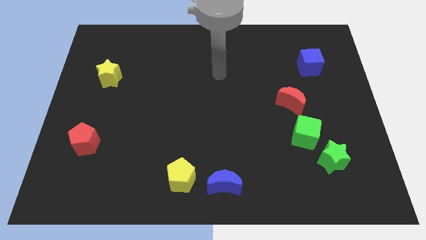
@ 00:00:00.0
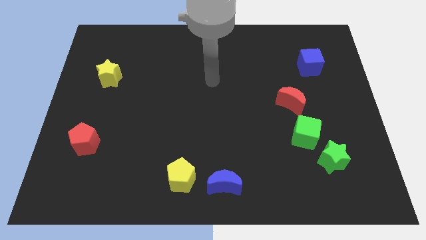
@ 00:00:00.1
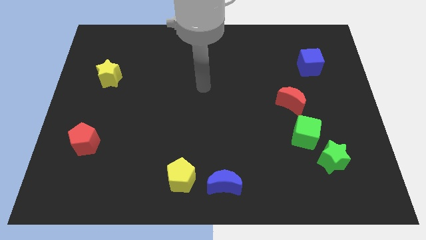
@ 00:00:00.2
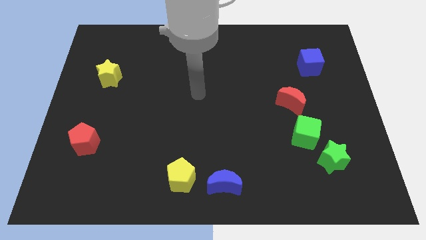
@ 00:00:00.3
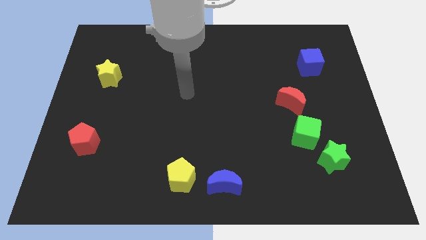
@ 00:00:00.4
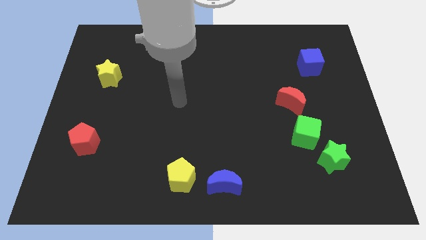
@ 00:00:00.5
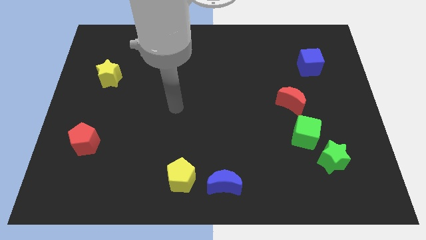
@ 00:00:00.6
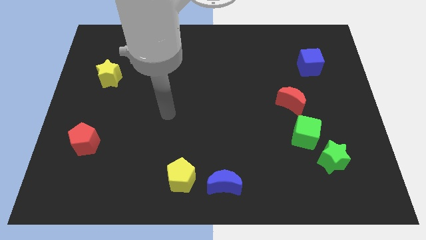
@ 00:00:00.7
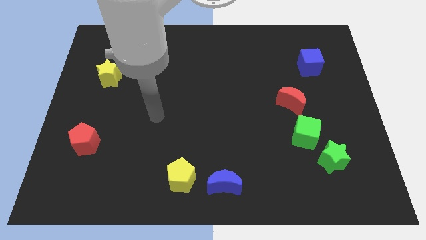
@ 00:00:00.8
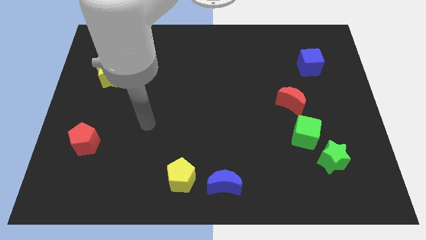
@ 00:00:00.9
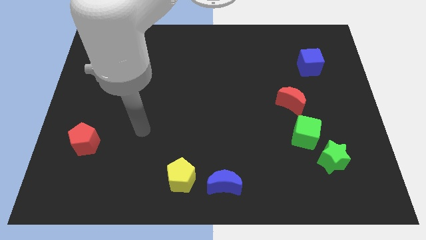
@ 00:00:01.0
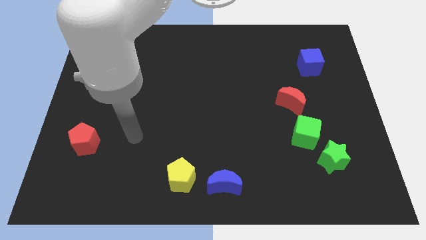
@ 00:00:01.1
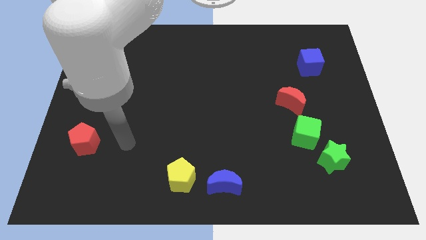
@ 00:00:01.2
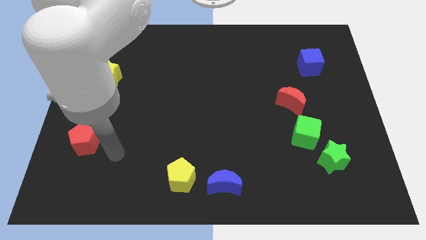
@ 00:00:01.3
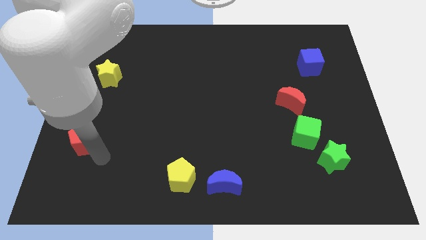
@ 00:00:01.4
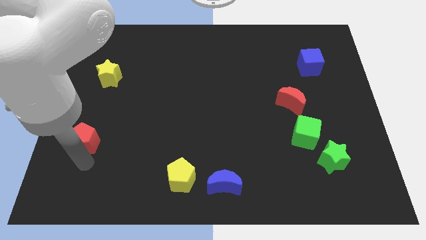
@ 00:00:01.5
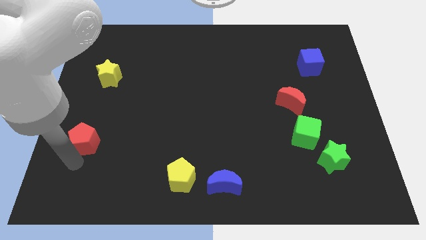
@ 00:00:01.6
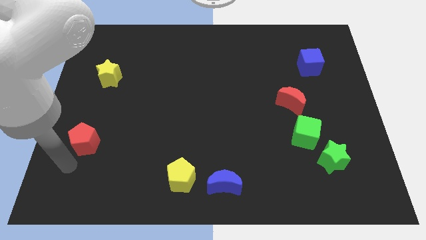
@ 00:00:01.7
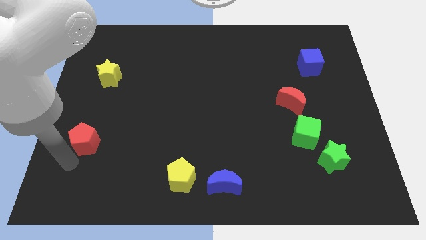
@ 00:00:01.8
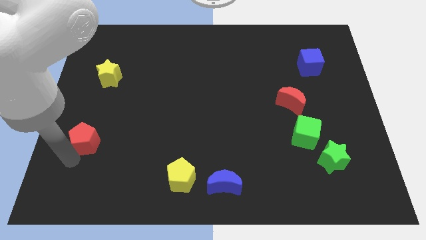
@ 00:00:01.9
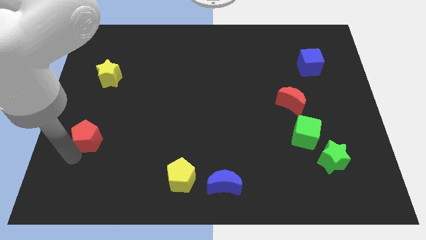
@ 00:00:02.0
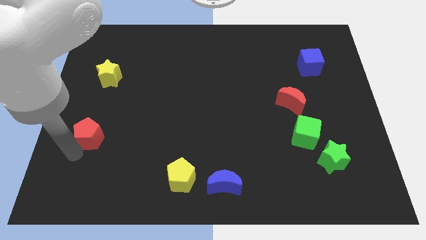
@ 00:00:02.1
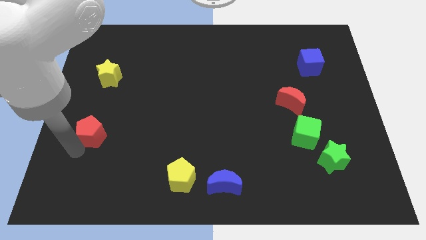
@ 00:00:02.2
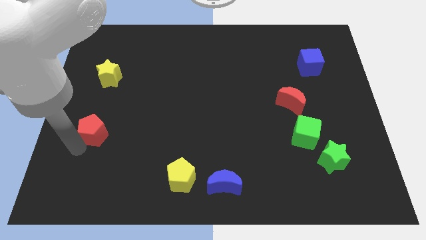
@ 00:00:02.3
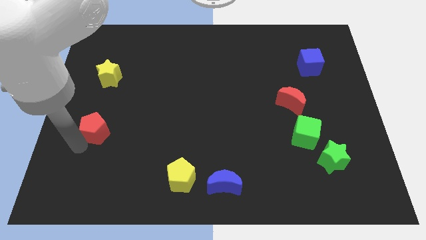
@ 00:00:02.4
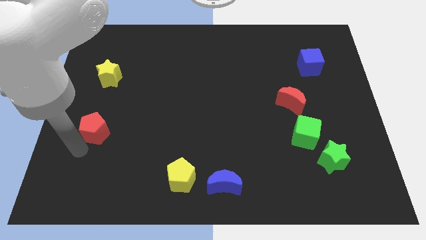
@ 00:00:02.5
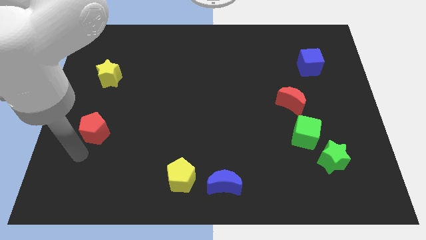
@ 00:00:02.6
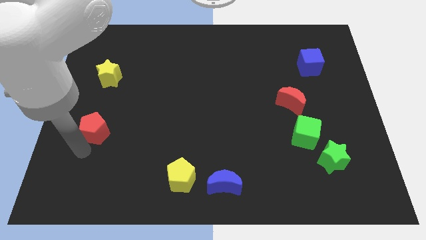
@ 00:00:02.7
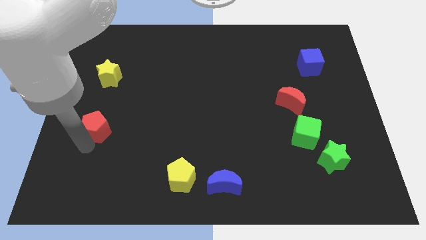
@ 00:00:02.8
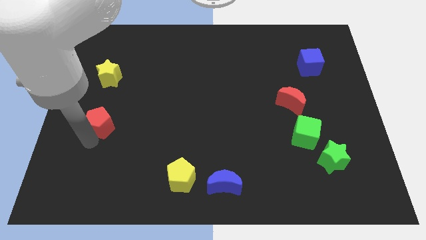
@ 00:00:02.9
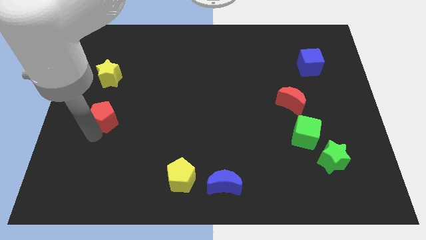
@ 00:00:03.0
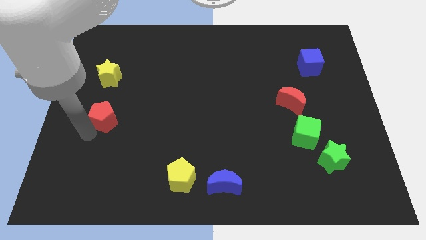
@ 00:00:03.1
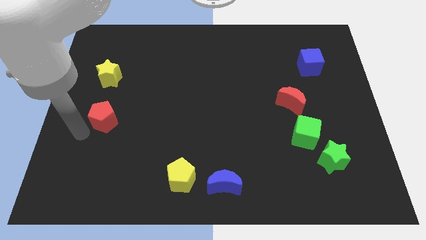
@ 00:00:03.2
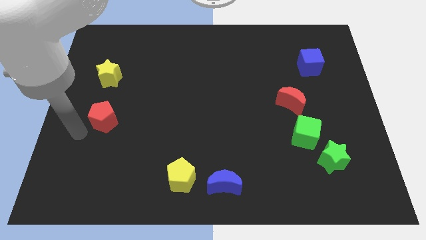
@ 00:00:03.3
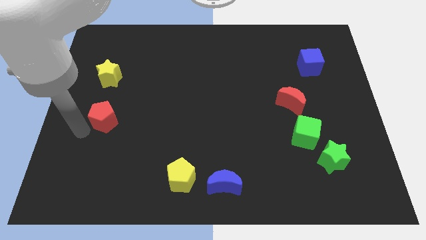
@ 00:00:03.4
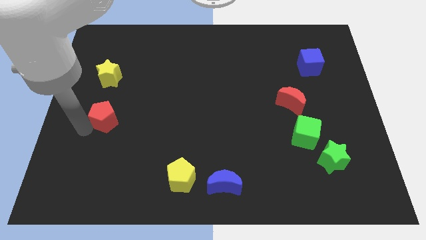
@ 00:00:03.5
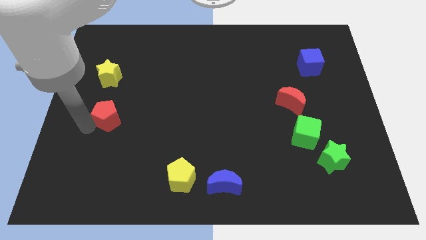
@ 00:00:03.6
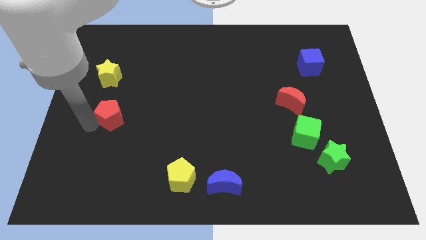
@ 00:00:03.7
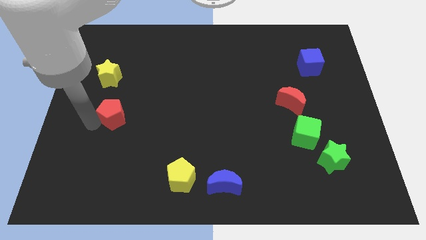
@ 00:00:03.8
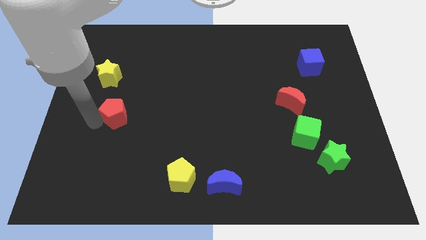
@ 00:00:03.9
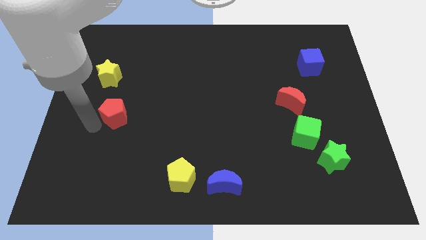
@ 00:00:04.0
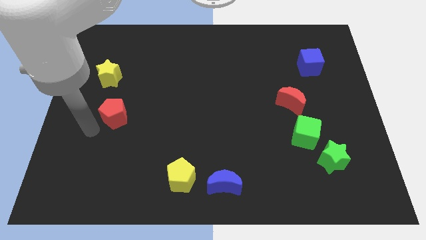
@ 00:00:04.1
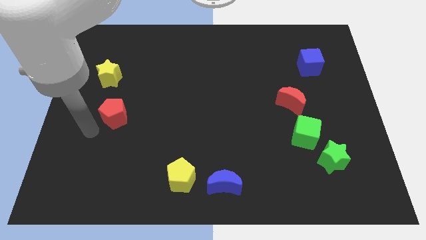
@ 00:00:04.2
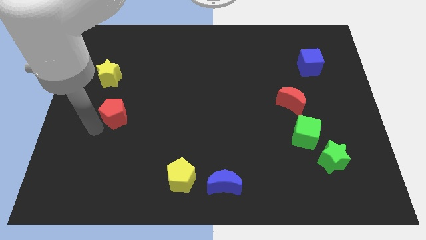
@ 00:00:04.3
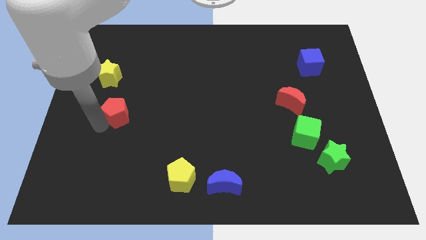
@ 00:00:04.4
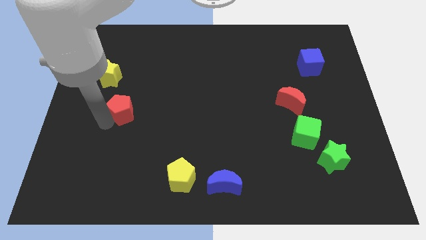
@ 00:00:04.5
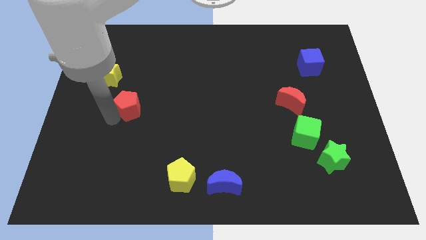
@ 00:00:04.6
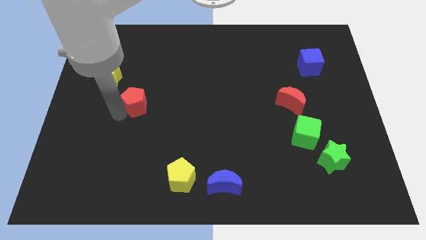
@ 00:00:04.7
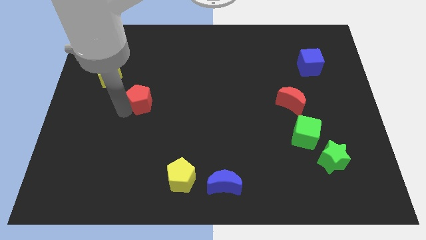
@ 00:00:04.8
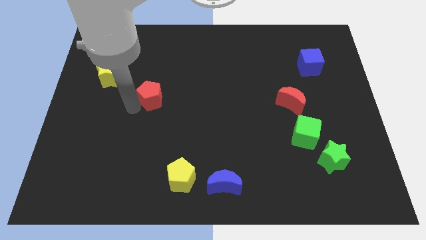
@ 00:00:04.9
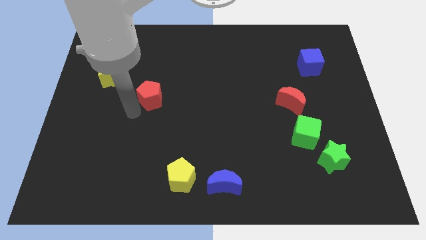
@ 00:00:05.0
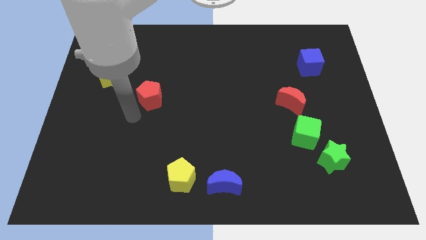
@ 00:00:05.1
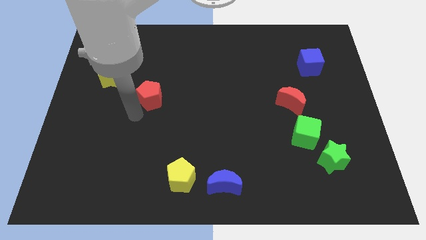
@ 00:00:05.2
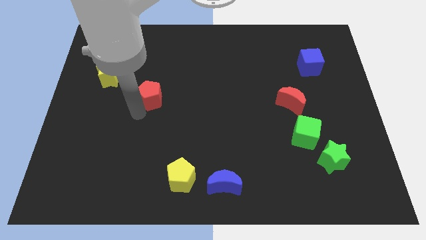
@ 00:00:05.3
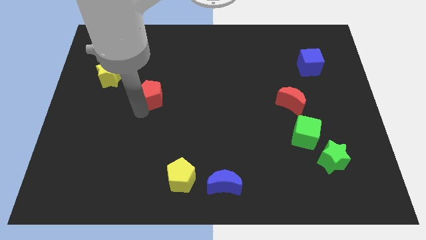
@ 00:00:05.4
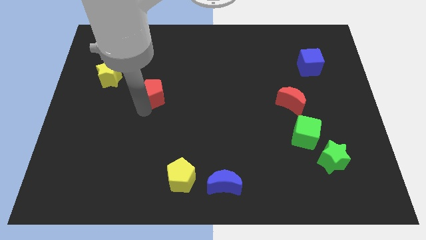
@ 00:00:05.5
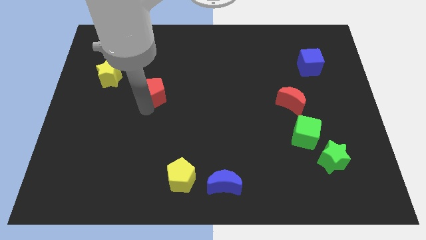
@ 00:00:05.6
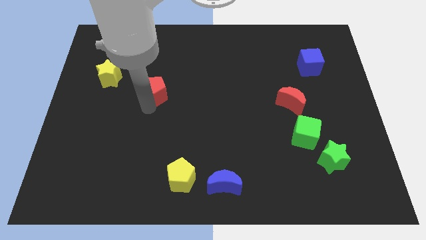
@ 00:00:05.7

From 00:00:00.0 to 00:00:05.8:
slide the red pentagon diagonally up and to the right

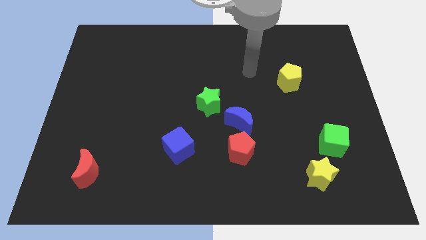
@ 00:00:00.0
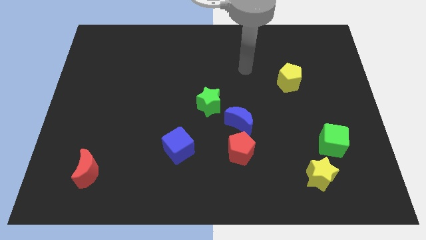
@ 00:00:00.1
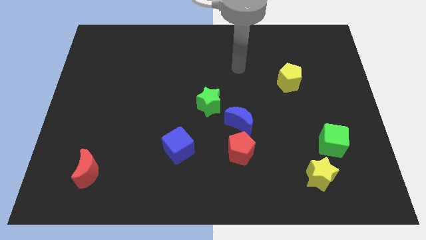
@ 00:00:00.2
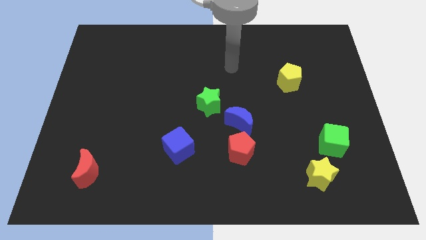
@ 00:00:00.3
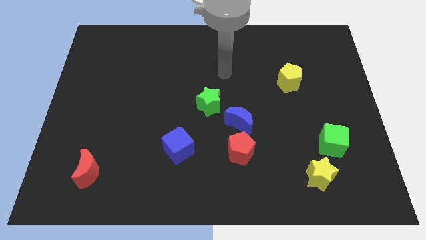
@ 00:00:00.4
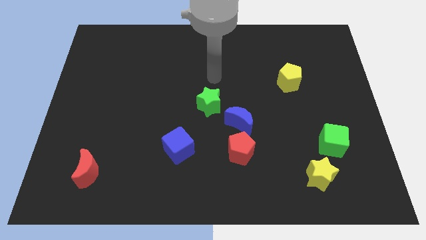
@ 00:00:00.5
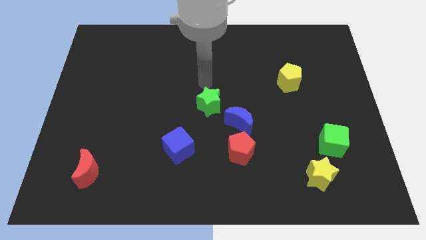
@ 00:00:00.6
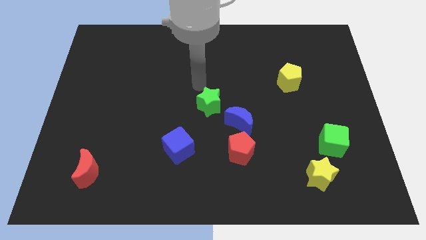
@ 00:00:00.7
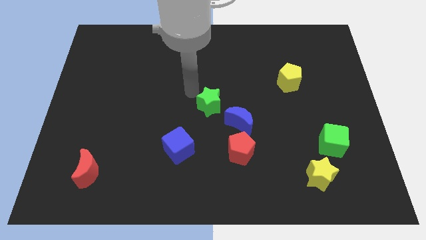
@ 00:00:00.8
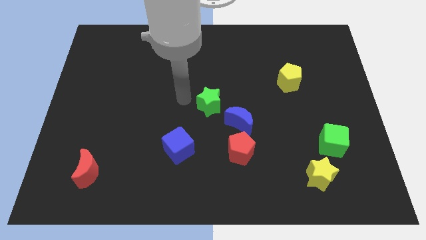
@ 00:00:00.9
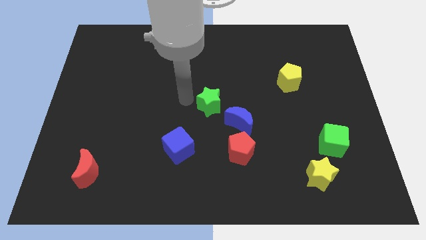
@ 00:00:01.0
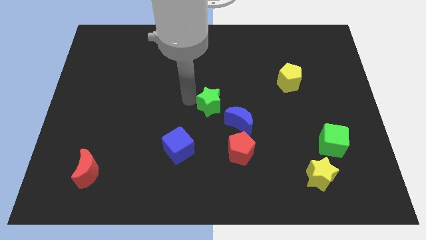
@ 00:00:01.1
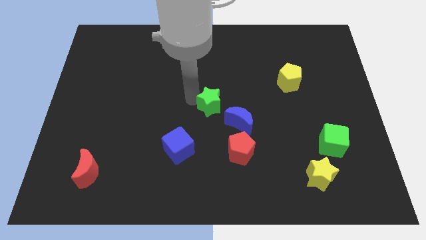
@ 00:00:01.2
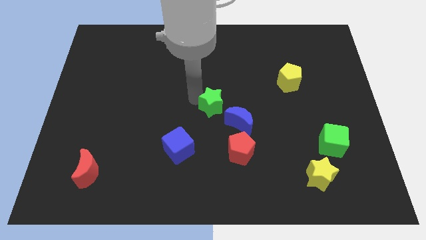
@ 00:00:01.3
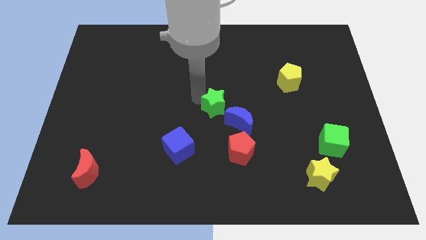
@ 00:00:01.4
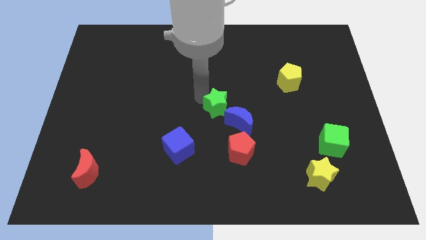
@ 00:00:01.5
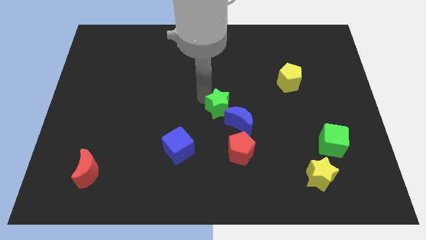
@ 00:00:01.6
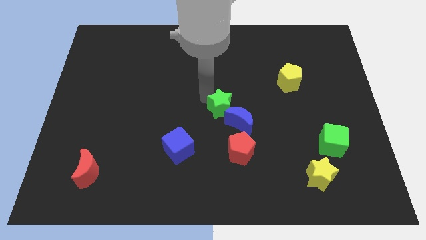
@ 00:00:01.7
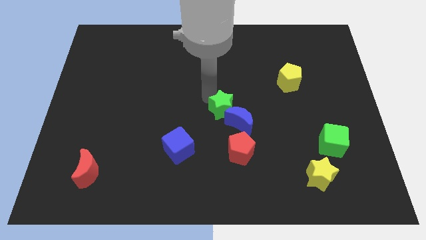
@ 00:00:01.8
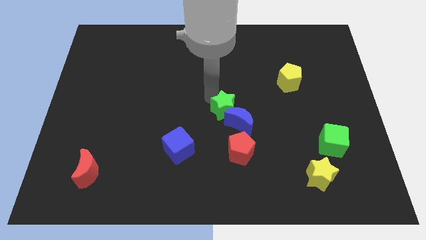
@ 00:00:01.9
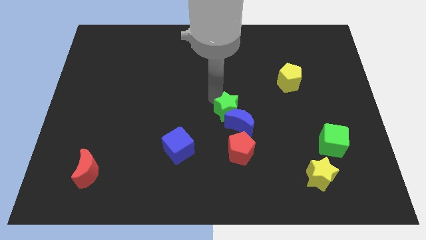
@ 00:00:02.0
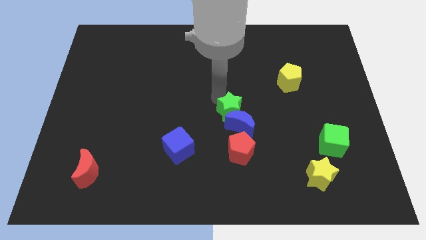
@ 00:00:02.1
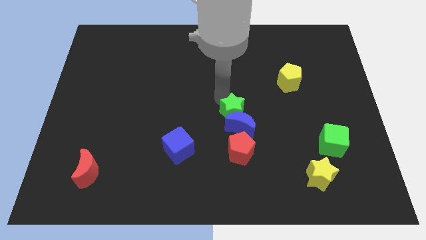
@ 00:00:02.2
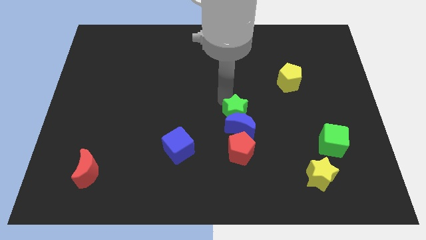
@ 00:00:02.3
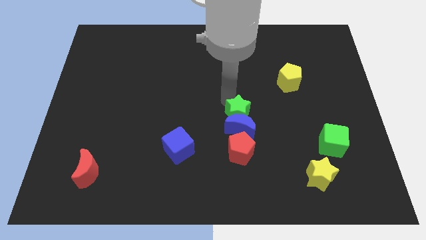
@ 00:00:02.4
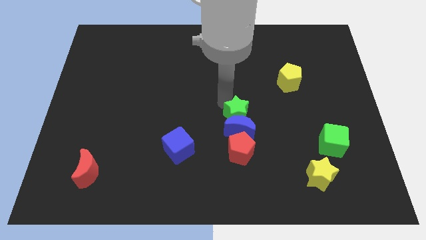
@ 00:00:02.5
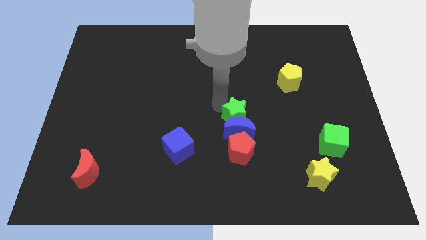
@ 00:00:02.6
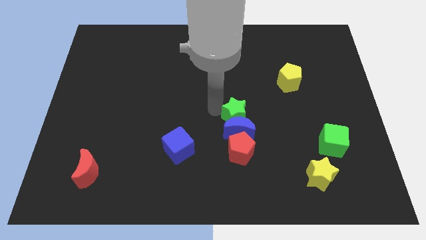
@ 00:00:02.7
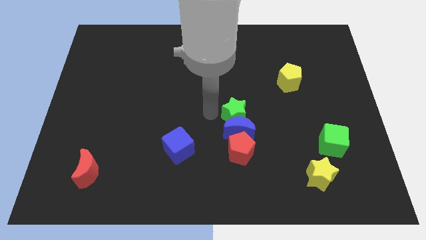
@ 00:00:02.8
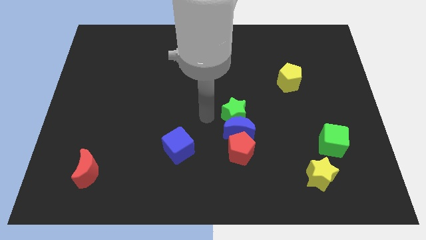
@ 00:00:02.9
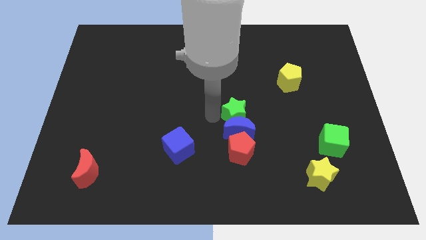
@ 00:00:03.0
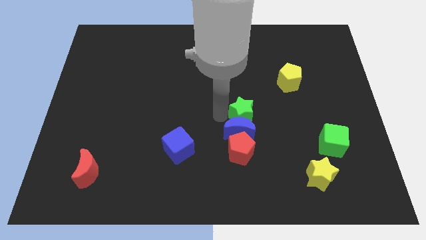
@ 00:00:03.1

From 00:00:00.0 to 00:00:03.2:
slightly move the green star downwards and then to the right
